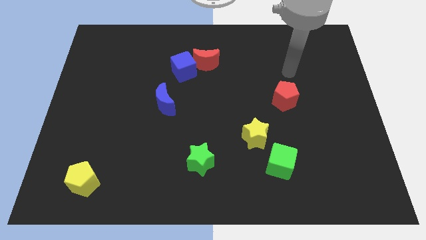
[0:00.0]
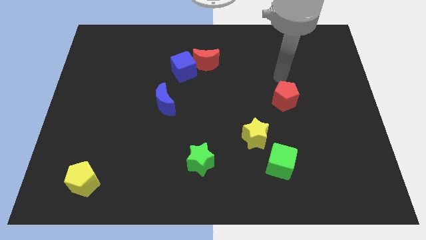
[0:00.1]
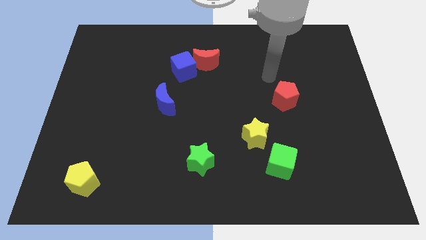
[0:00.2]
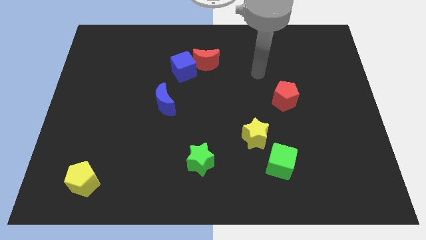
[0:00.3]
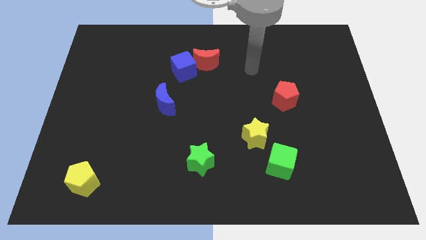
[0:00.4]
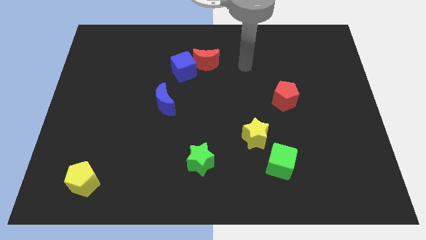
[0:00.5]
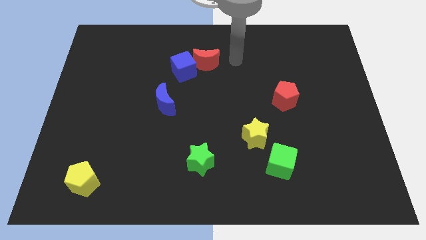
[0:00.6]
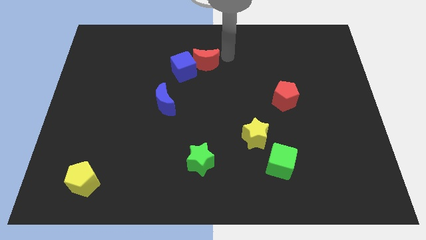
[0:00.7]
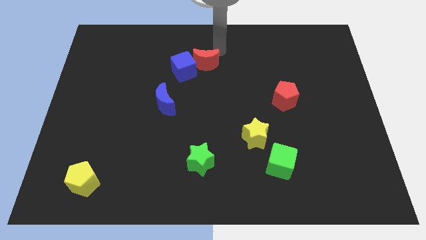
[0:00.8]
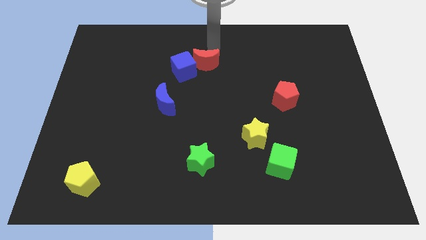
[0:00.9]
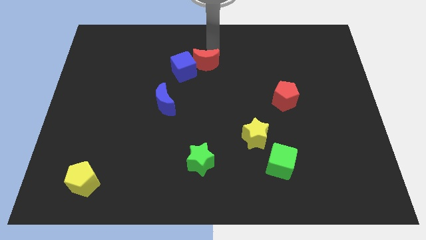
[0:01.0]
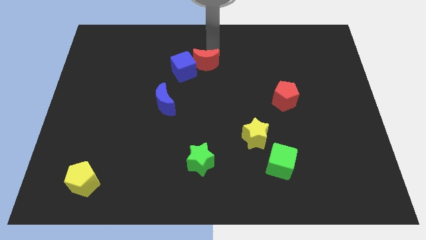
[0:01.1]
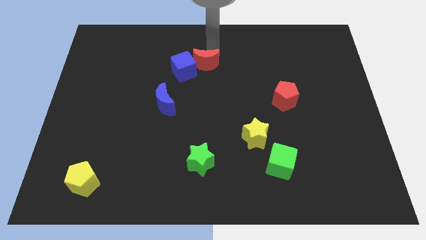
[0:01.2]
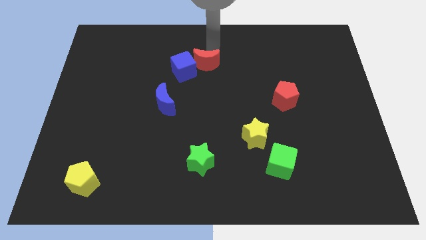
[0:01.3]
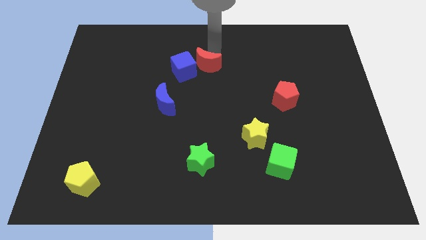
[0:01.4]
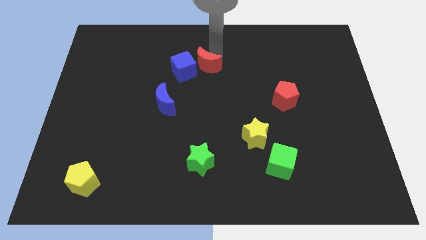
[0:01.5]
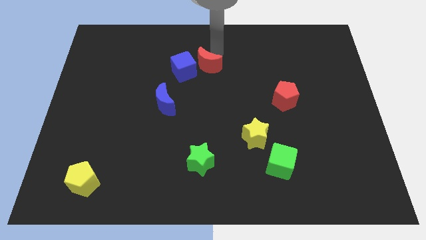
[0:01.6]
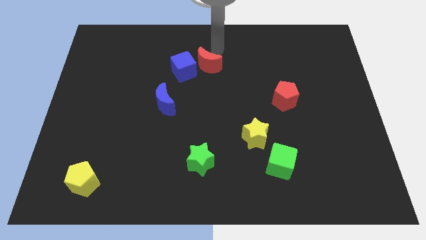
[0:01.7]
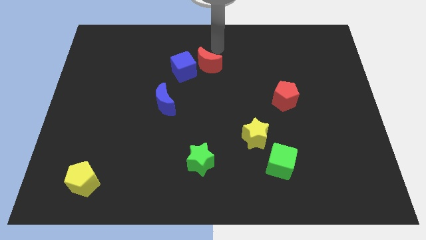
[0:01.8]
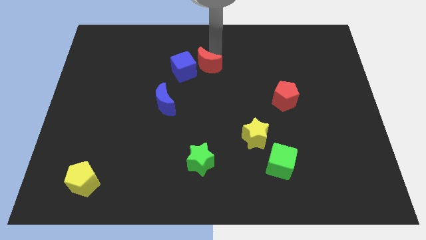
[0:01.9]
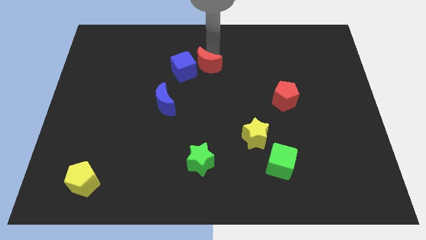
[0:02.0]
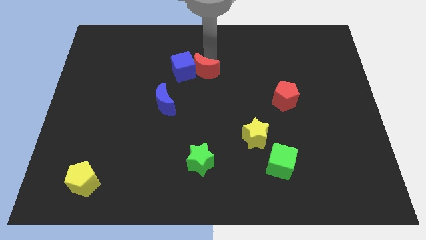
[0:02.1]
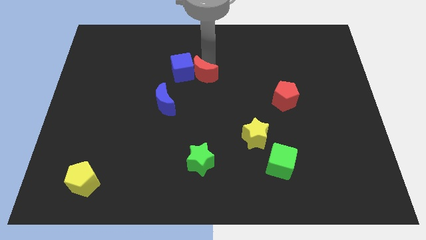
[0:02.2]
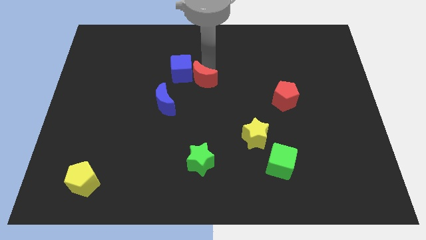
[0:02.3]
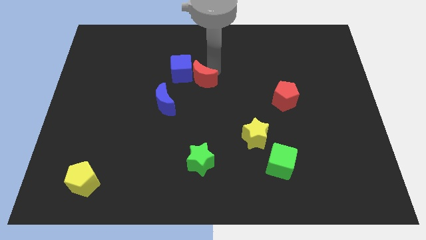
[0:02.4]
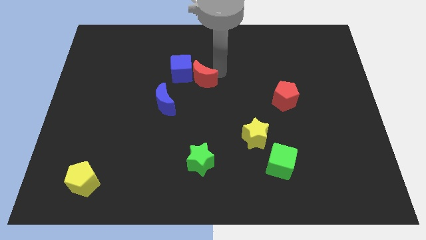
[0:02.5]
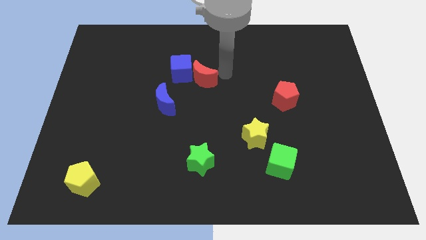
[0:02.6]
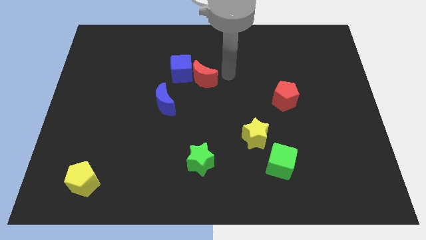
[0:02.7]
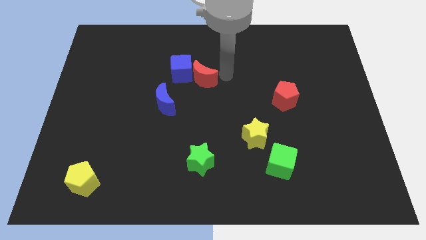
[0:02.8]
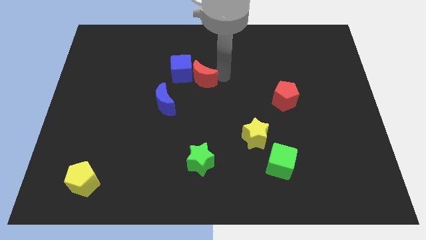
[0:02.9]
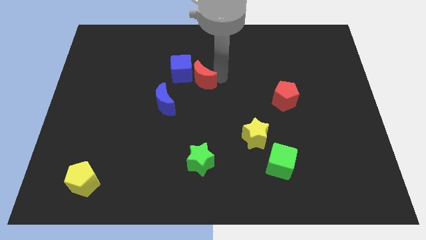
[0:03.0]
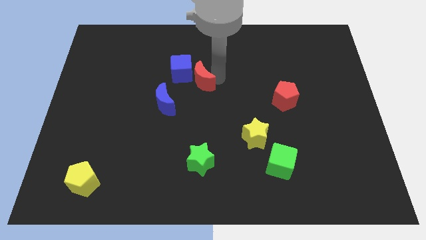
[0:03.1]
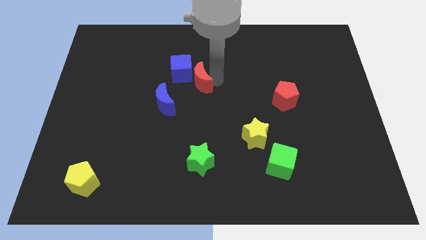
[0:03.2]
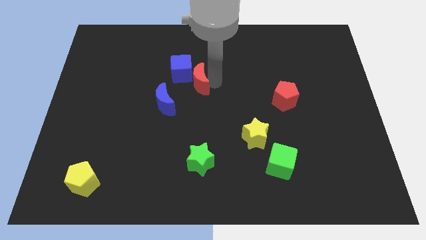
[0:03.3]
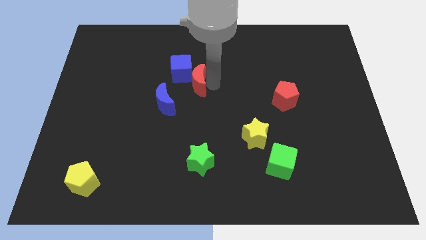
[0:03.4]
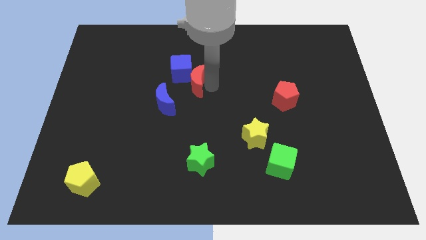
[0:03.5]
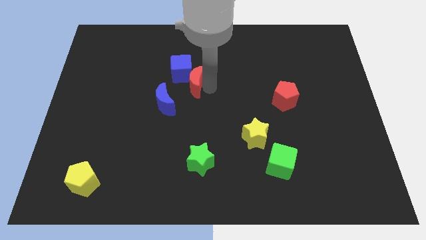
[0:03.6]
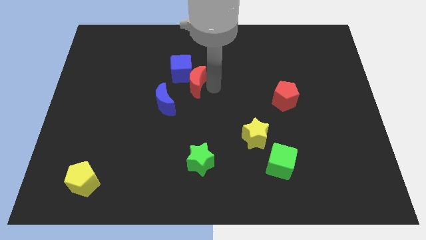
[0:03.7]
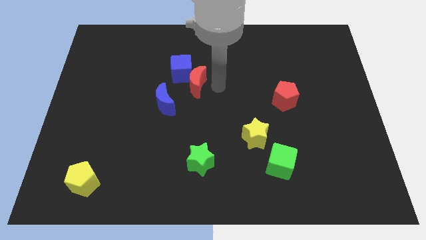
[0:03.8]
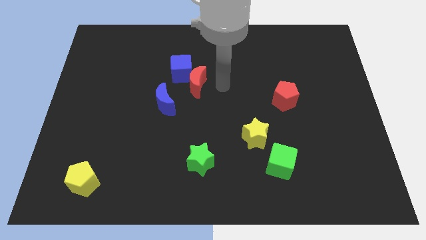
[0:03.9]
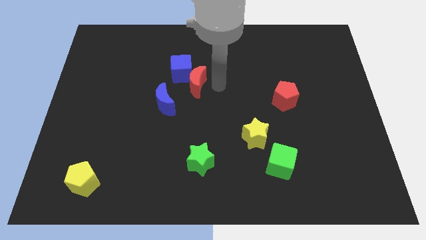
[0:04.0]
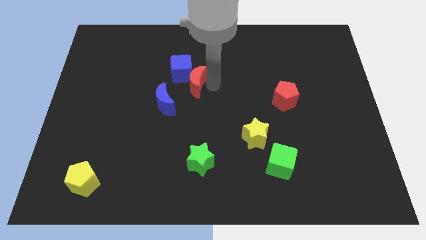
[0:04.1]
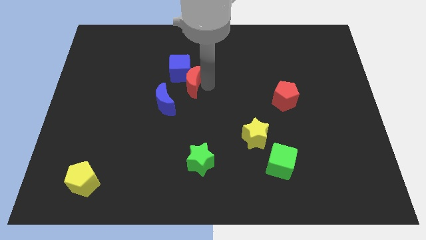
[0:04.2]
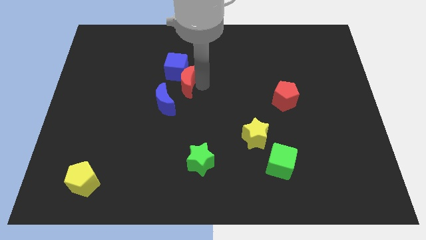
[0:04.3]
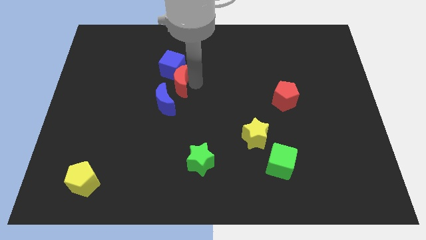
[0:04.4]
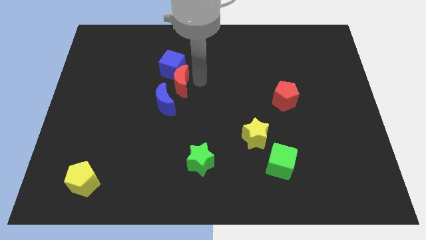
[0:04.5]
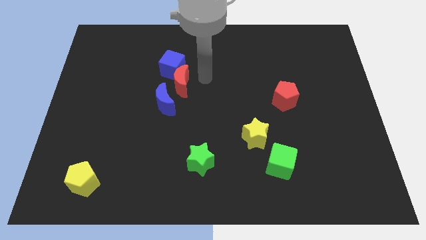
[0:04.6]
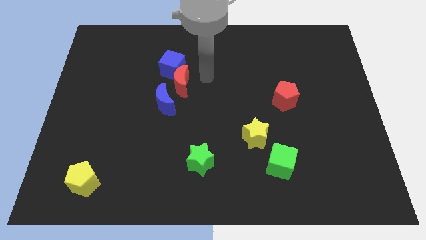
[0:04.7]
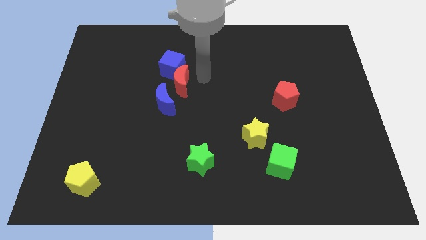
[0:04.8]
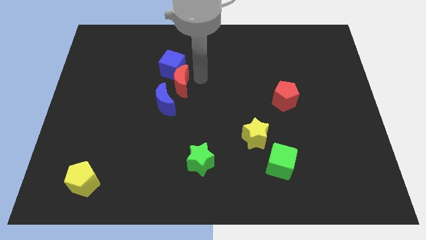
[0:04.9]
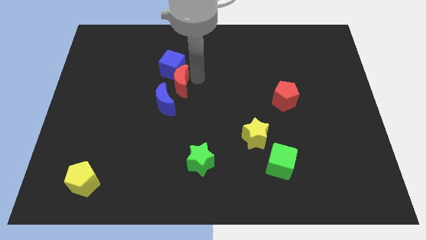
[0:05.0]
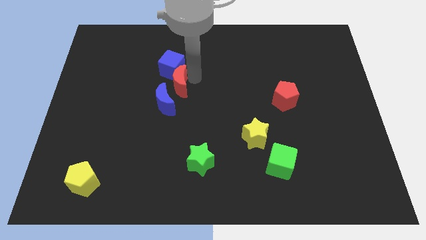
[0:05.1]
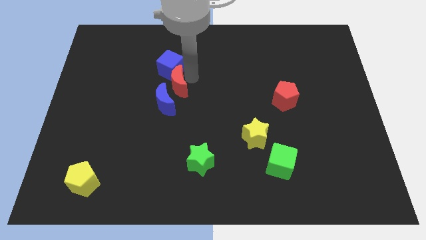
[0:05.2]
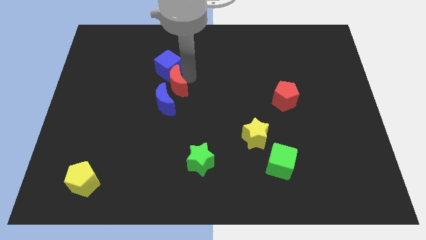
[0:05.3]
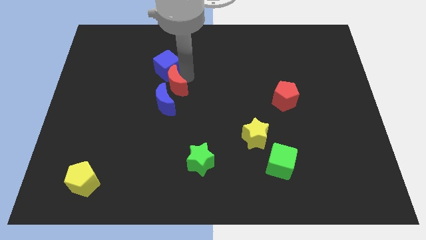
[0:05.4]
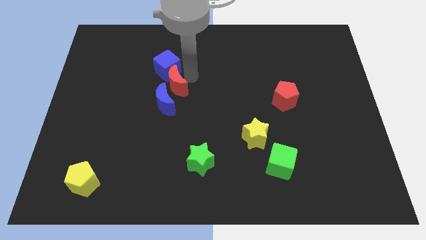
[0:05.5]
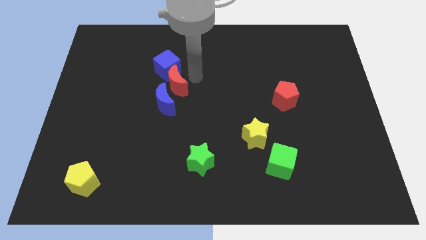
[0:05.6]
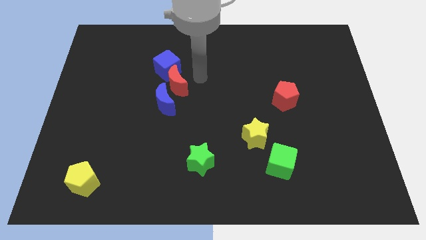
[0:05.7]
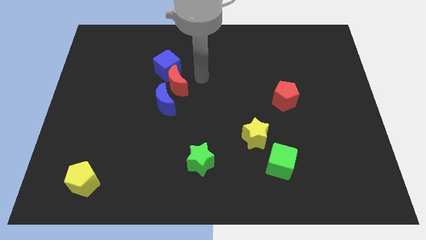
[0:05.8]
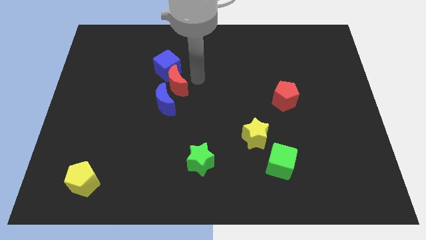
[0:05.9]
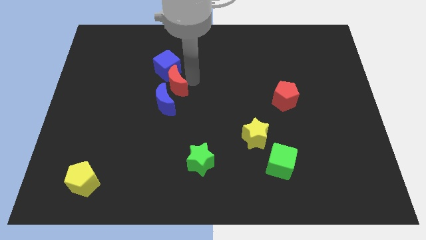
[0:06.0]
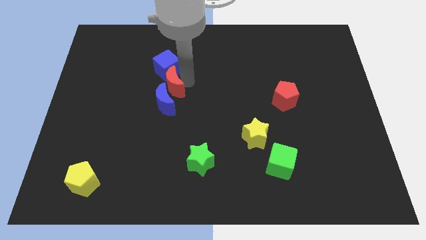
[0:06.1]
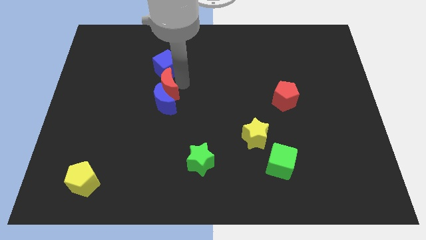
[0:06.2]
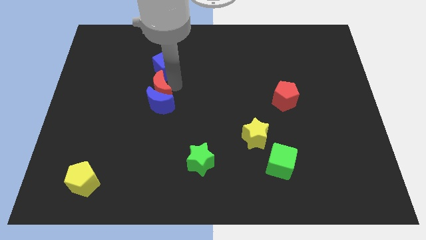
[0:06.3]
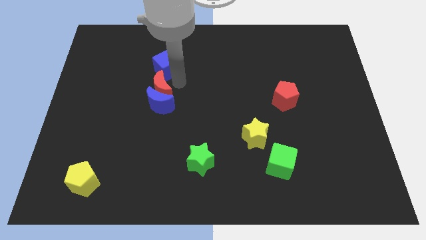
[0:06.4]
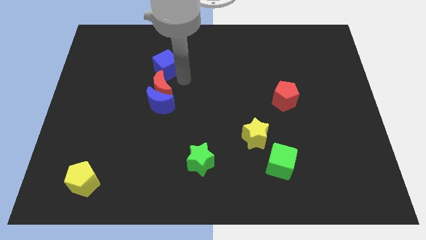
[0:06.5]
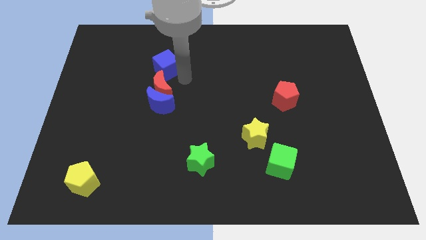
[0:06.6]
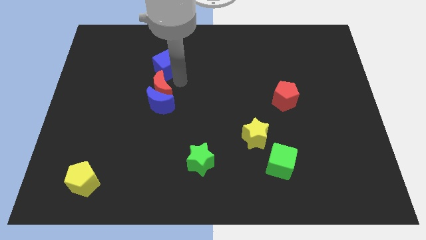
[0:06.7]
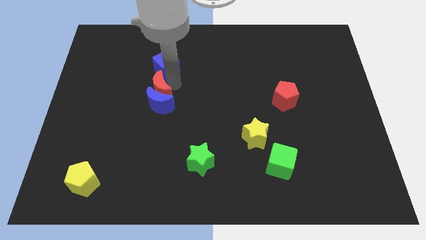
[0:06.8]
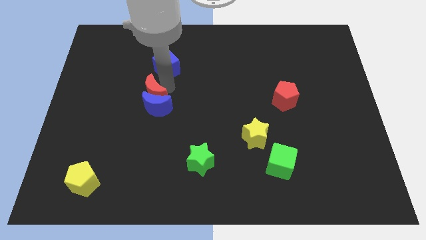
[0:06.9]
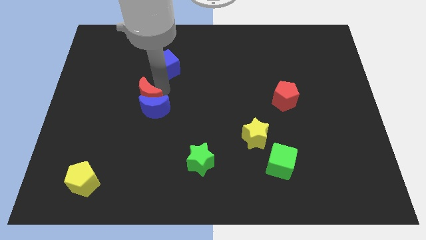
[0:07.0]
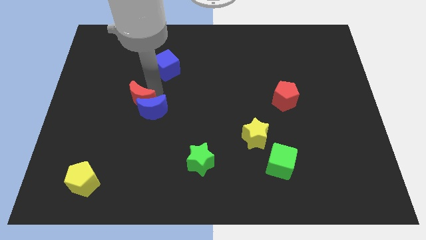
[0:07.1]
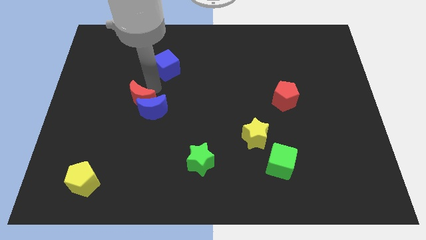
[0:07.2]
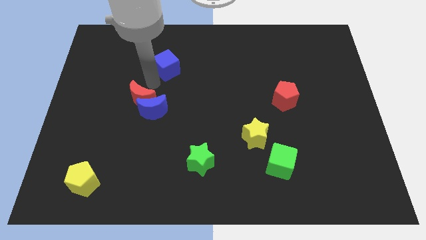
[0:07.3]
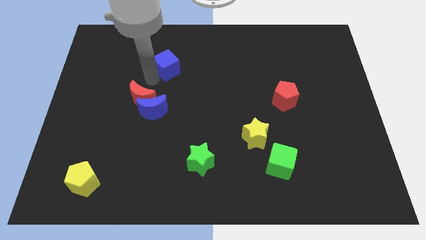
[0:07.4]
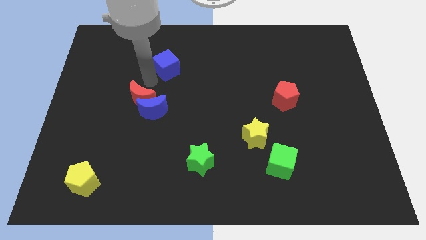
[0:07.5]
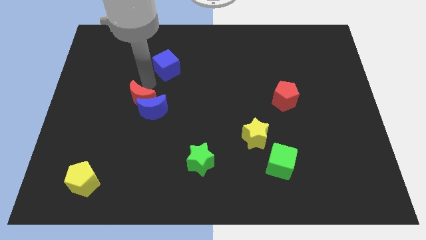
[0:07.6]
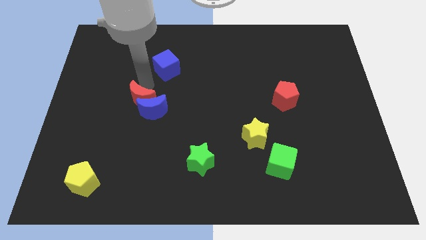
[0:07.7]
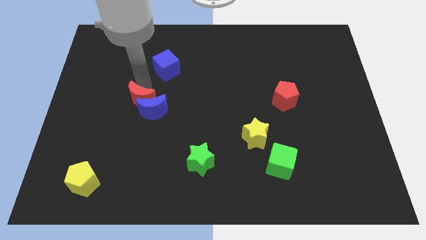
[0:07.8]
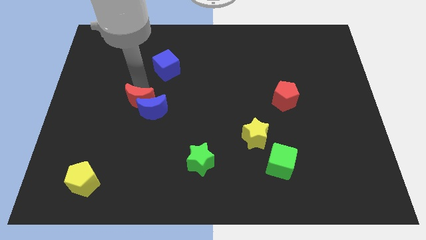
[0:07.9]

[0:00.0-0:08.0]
slide the red moon downwards and to the left
